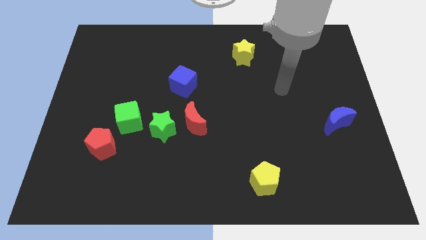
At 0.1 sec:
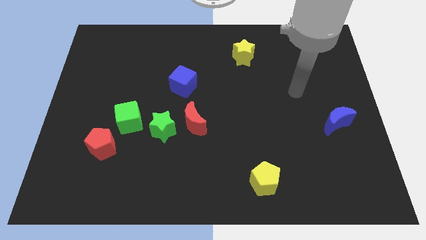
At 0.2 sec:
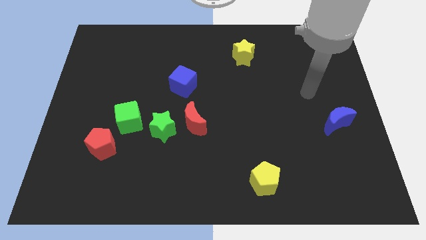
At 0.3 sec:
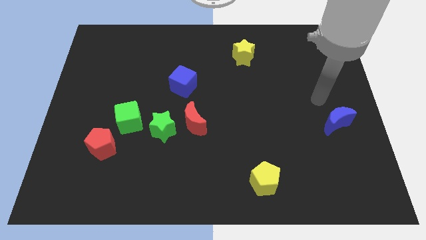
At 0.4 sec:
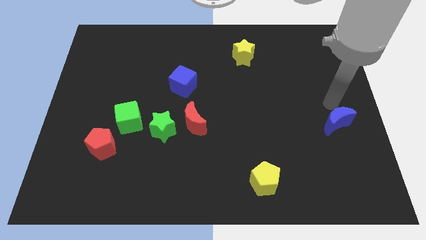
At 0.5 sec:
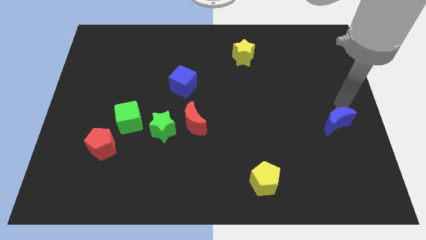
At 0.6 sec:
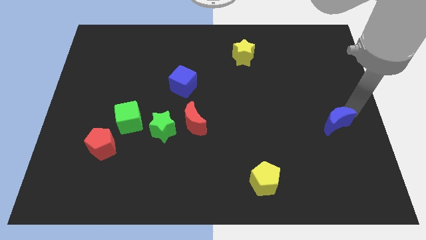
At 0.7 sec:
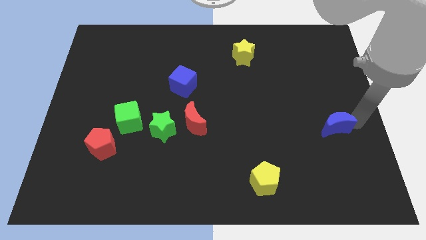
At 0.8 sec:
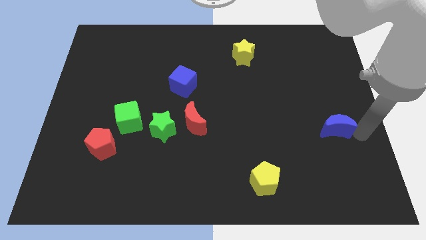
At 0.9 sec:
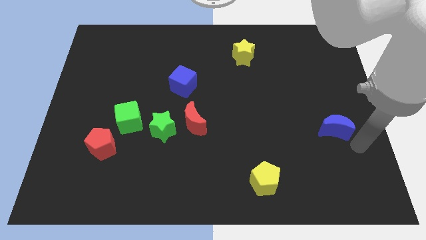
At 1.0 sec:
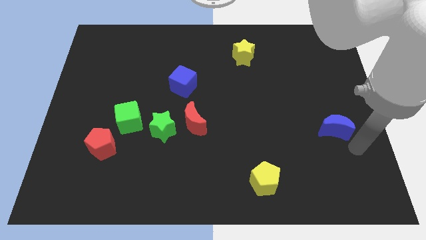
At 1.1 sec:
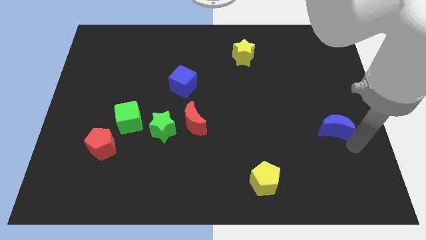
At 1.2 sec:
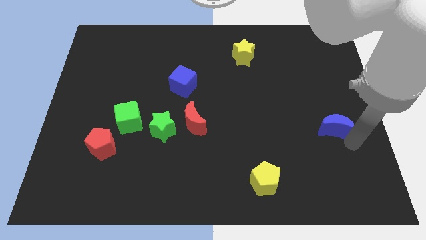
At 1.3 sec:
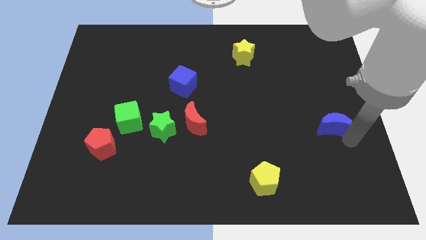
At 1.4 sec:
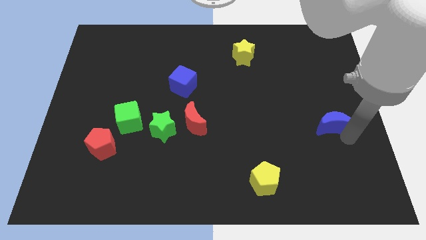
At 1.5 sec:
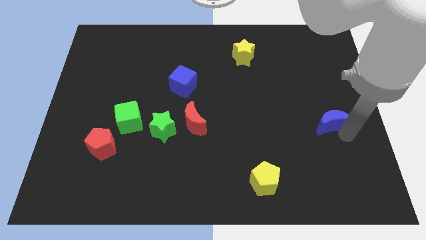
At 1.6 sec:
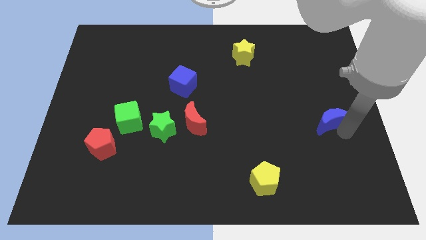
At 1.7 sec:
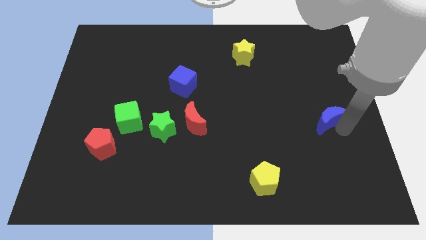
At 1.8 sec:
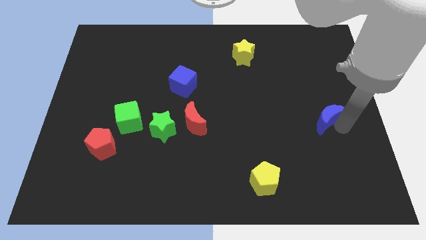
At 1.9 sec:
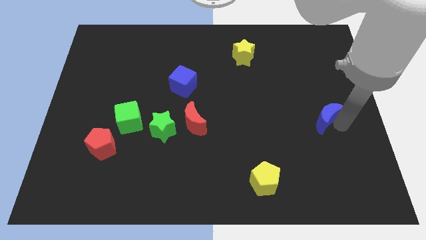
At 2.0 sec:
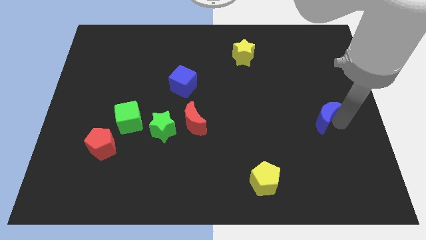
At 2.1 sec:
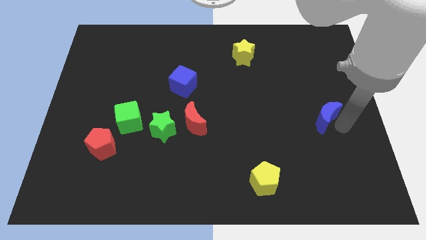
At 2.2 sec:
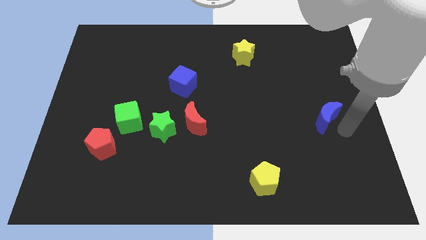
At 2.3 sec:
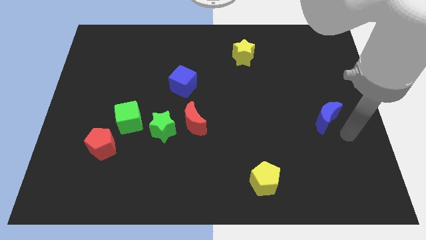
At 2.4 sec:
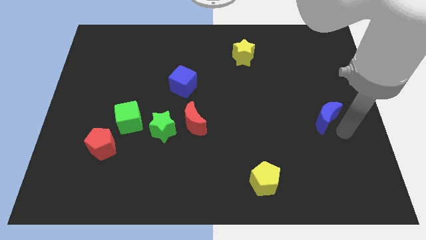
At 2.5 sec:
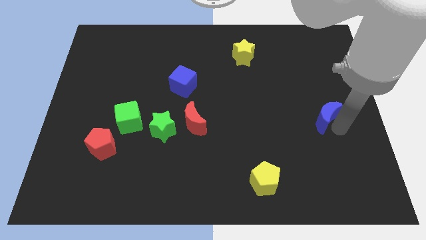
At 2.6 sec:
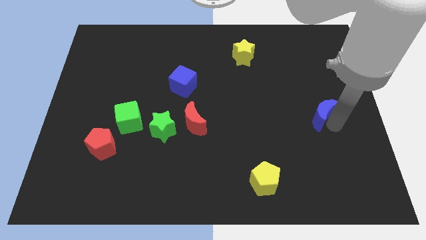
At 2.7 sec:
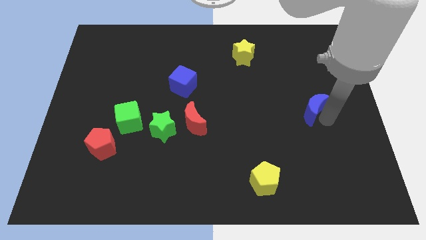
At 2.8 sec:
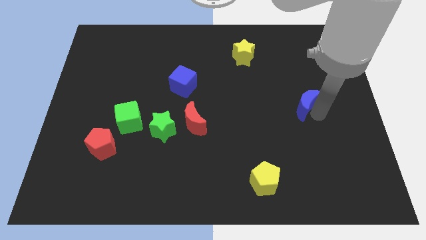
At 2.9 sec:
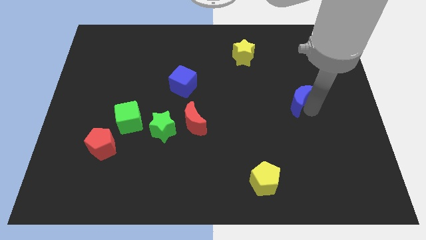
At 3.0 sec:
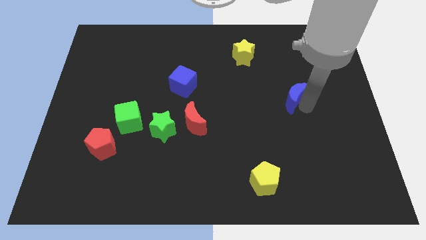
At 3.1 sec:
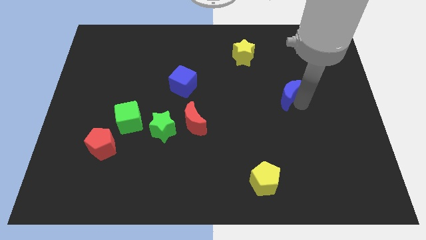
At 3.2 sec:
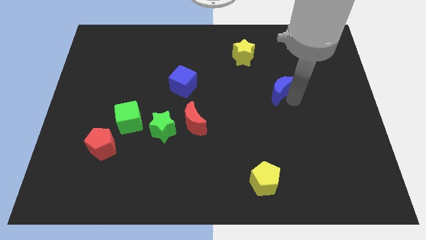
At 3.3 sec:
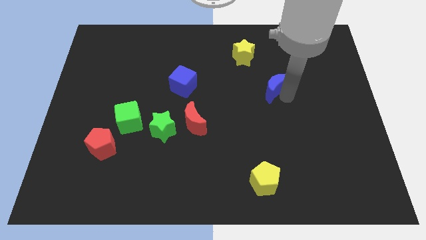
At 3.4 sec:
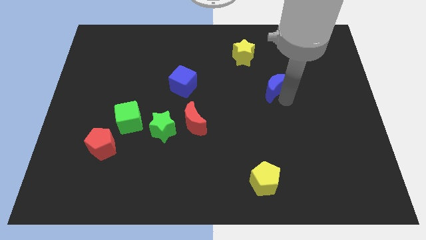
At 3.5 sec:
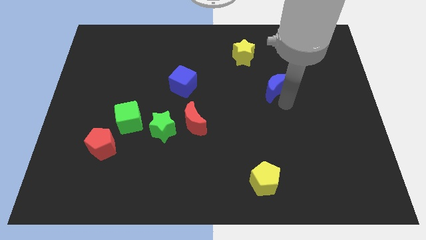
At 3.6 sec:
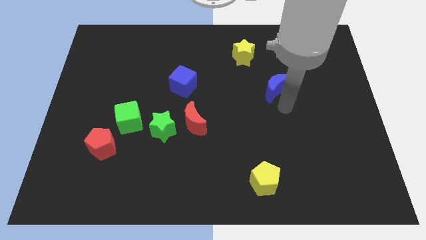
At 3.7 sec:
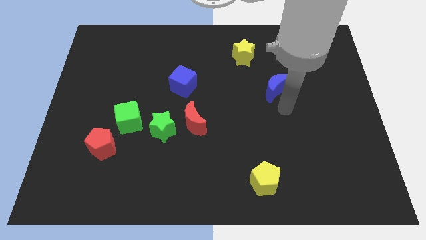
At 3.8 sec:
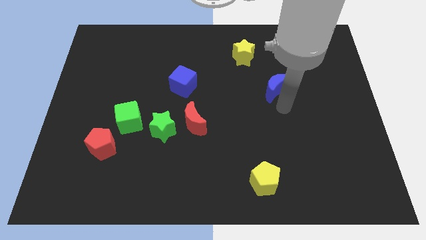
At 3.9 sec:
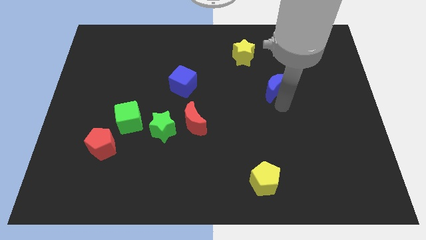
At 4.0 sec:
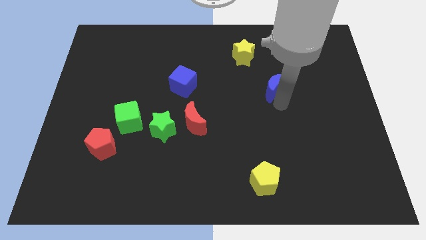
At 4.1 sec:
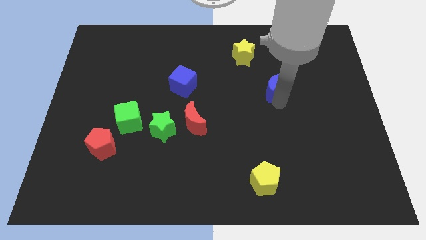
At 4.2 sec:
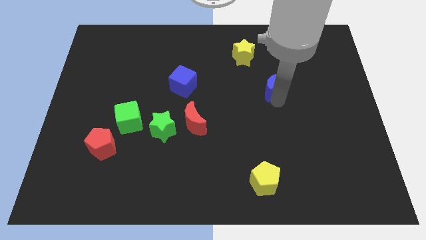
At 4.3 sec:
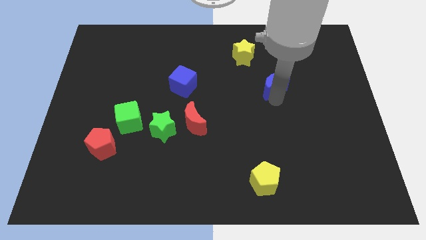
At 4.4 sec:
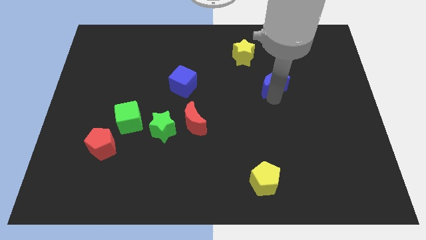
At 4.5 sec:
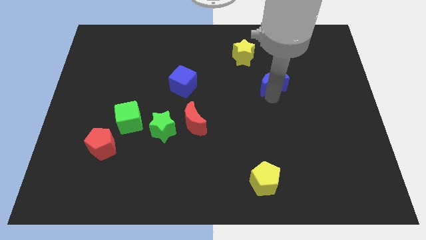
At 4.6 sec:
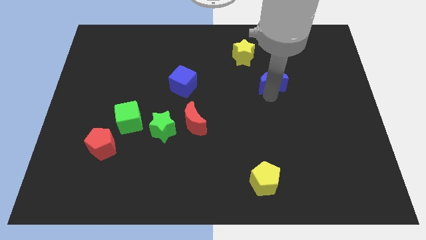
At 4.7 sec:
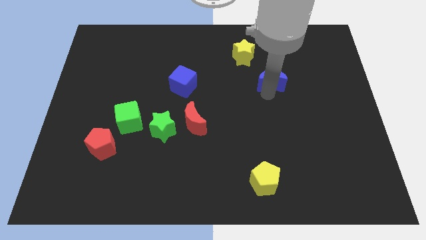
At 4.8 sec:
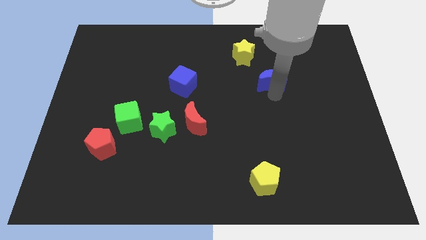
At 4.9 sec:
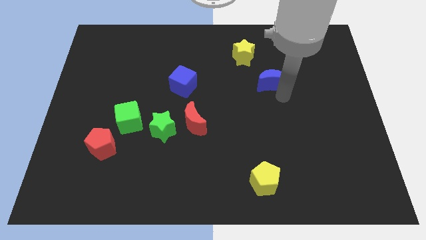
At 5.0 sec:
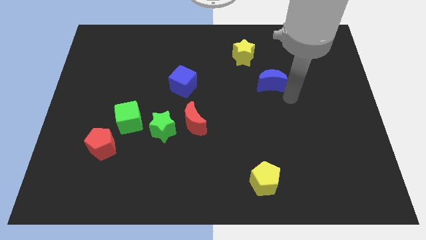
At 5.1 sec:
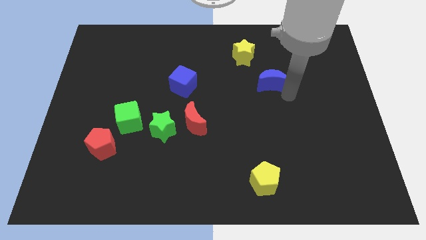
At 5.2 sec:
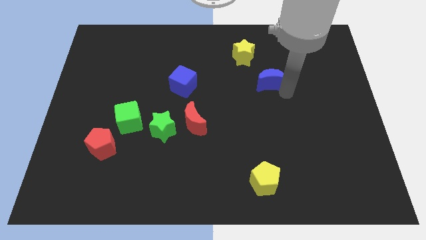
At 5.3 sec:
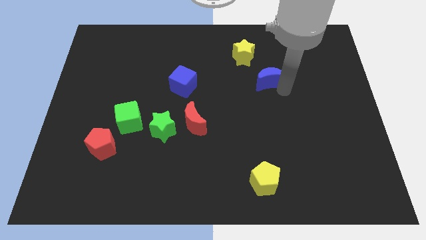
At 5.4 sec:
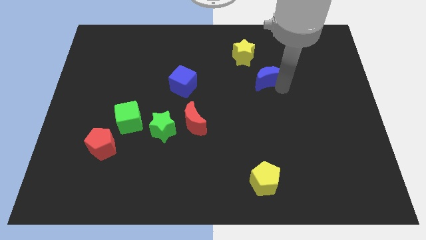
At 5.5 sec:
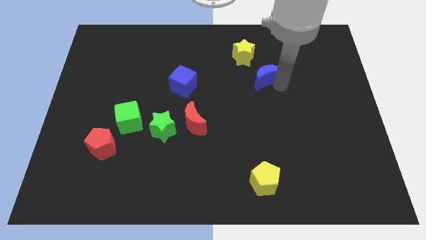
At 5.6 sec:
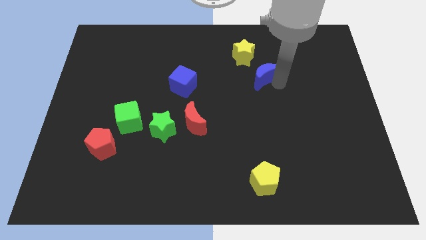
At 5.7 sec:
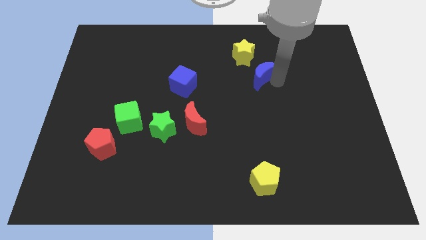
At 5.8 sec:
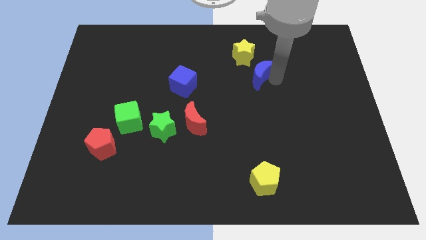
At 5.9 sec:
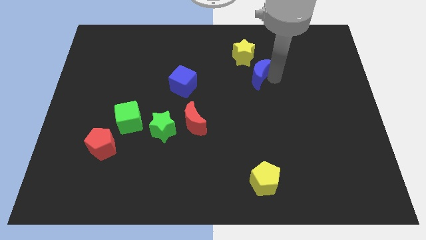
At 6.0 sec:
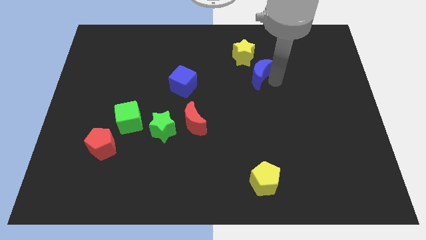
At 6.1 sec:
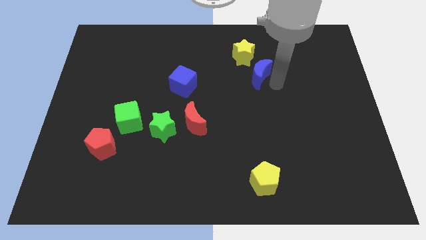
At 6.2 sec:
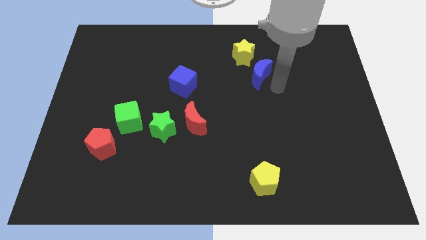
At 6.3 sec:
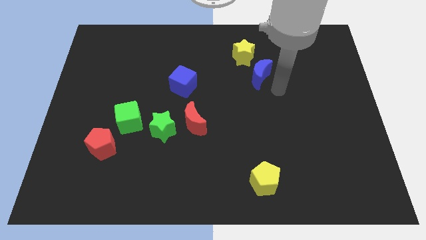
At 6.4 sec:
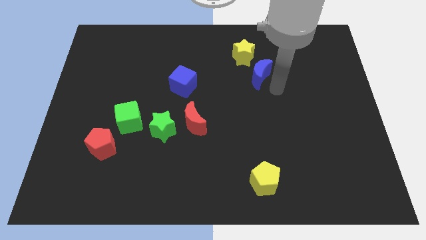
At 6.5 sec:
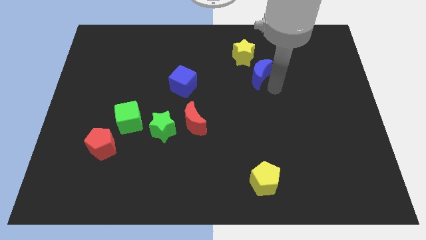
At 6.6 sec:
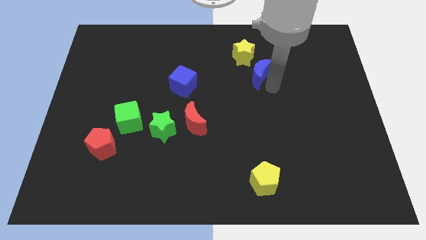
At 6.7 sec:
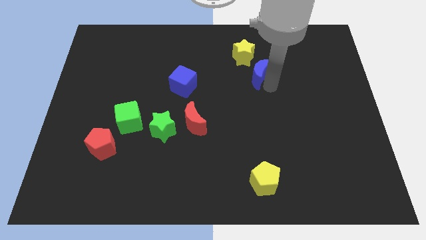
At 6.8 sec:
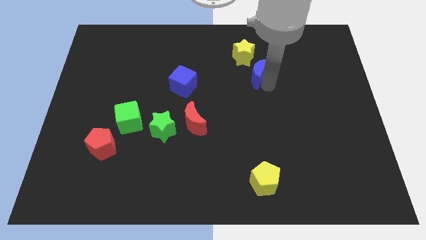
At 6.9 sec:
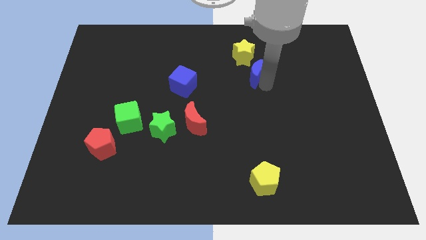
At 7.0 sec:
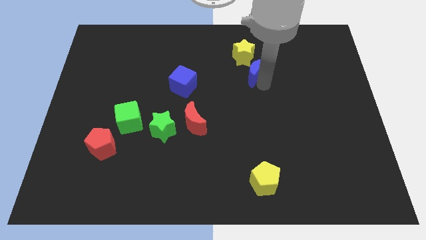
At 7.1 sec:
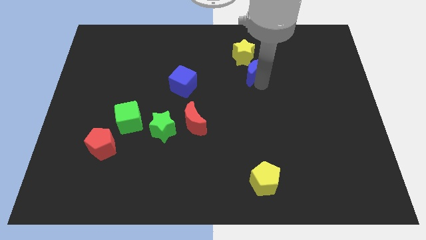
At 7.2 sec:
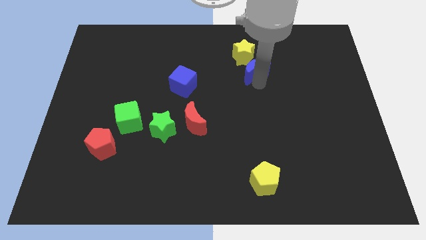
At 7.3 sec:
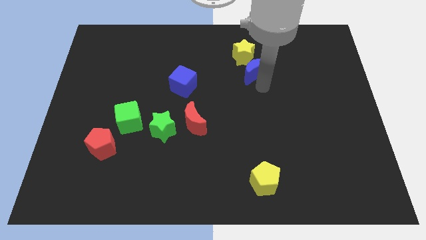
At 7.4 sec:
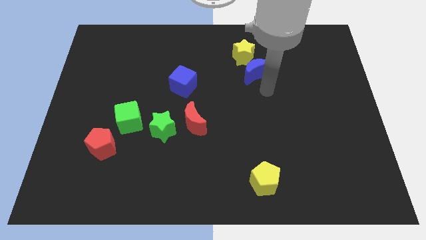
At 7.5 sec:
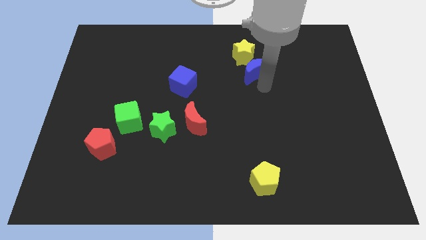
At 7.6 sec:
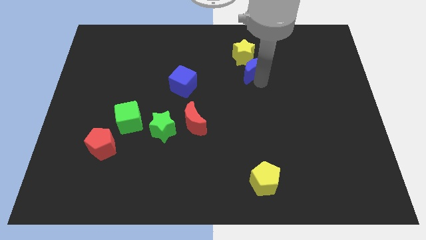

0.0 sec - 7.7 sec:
move the blue moon next to the yellow star
